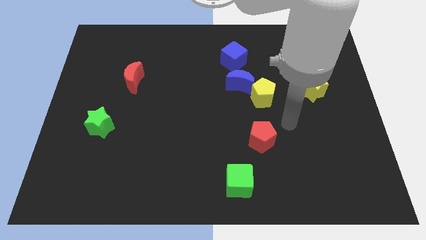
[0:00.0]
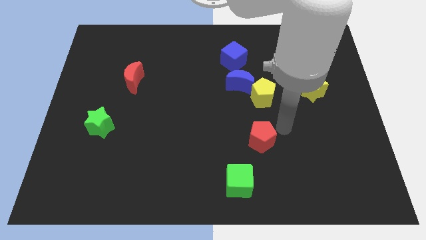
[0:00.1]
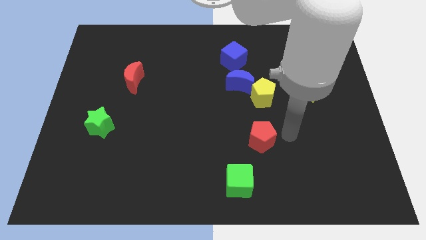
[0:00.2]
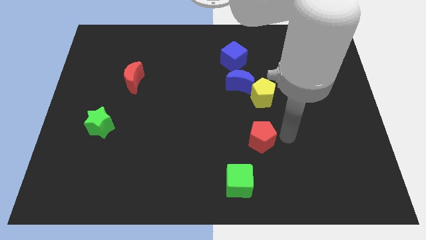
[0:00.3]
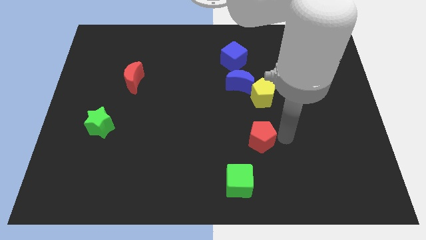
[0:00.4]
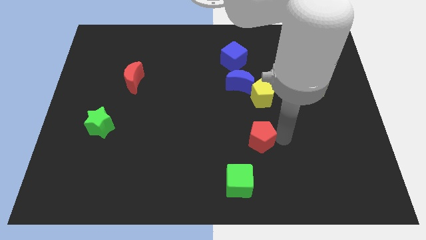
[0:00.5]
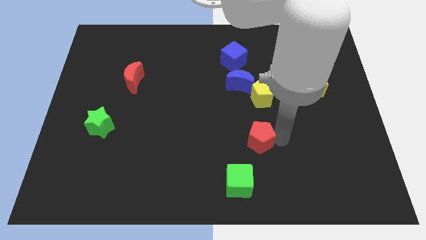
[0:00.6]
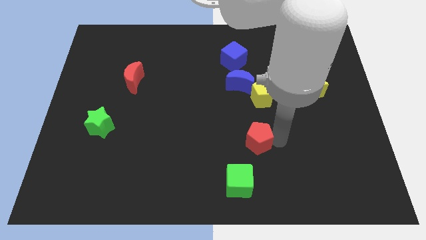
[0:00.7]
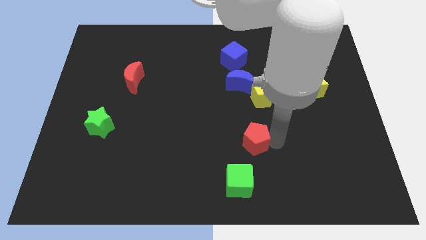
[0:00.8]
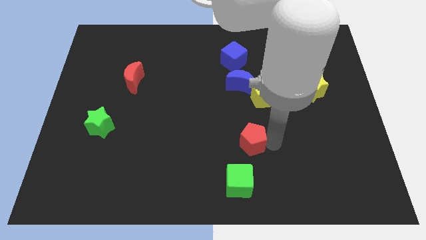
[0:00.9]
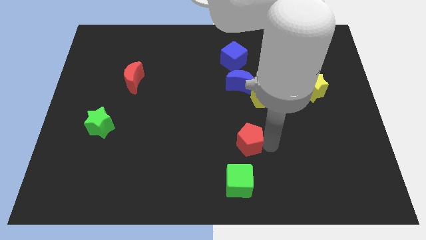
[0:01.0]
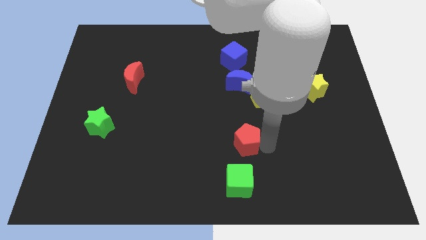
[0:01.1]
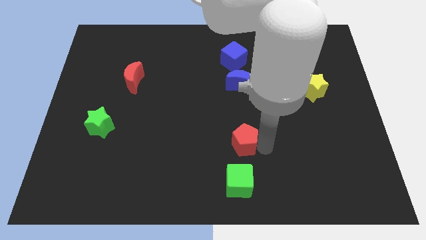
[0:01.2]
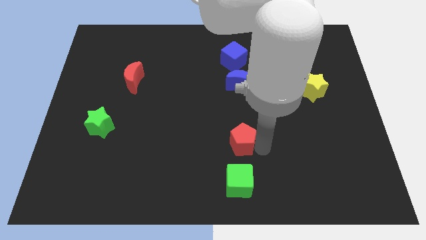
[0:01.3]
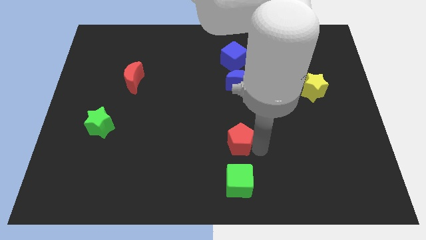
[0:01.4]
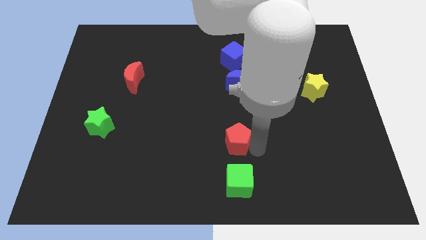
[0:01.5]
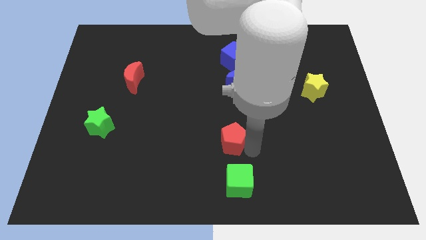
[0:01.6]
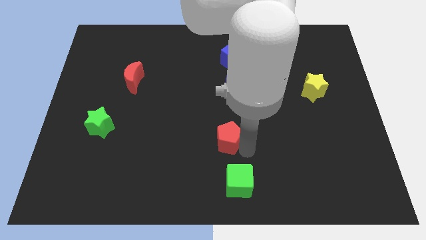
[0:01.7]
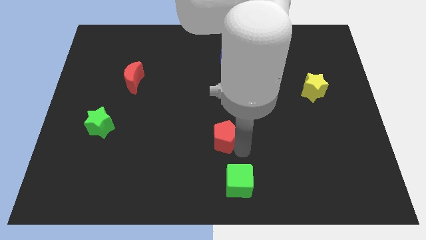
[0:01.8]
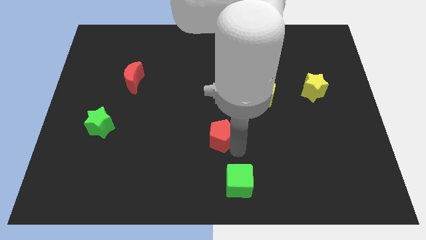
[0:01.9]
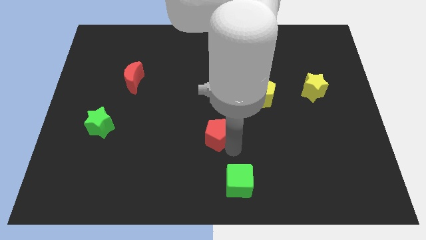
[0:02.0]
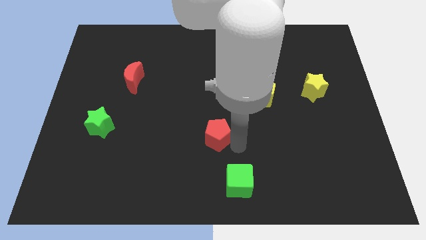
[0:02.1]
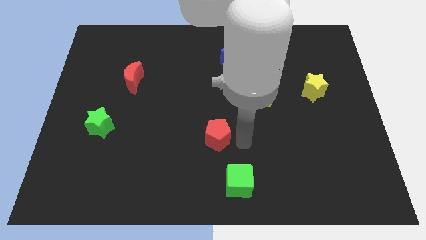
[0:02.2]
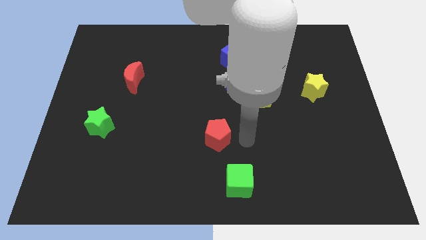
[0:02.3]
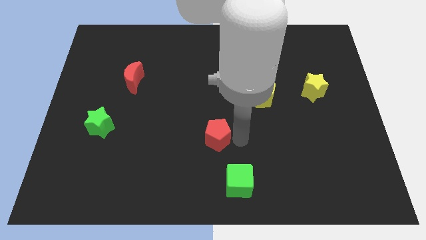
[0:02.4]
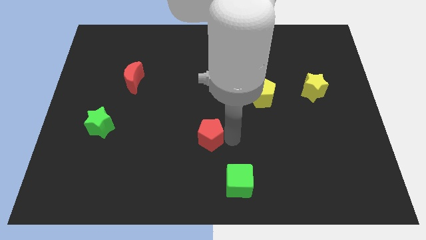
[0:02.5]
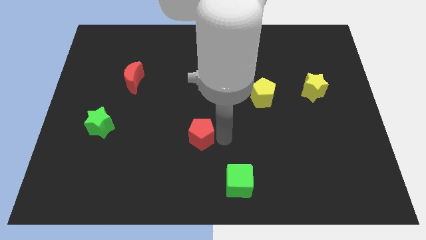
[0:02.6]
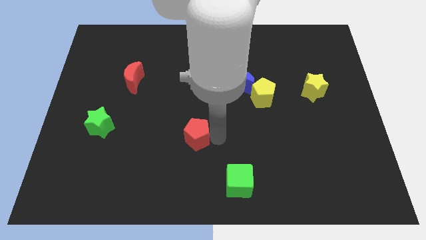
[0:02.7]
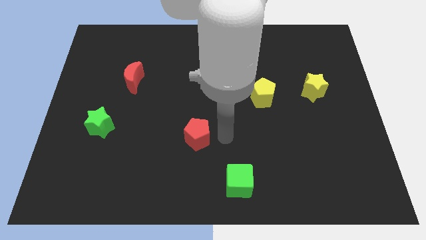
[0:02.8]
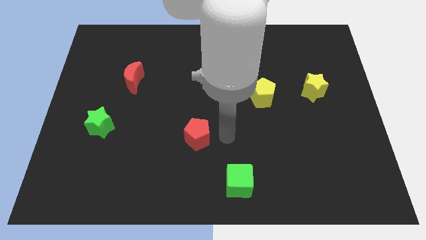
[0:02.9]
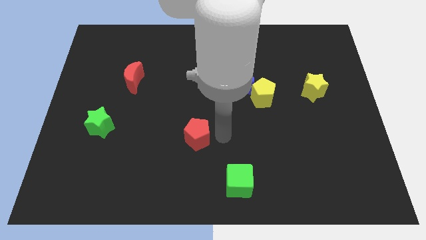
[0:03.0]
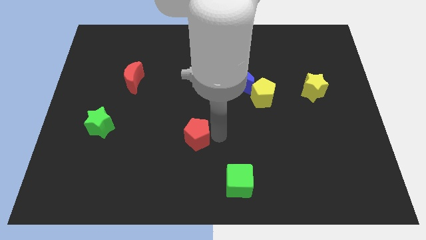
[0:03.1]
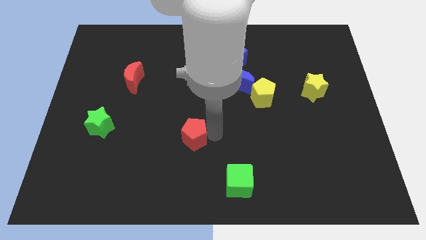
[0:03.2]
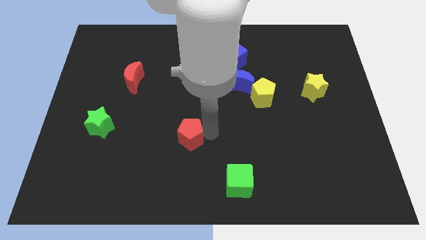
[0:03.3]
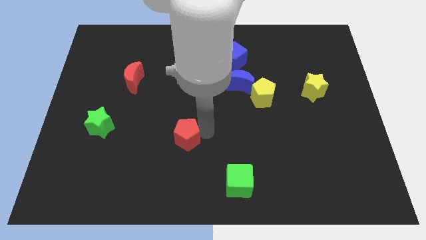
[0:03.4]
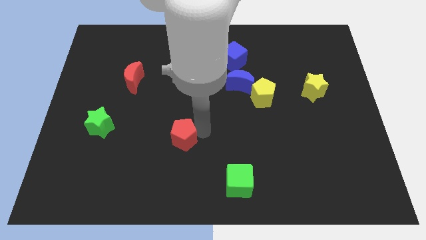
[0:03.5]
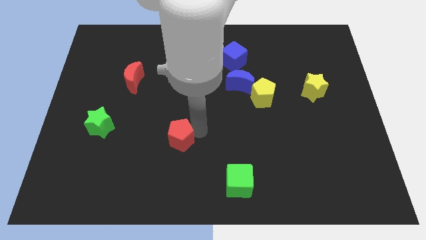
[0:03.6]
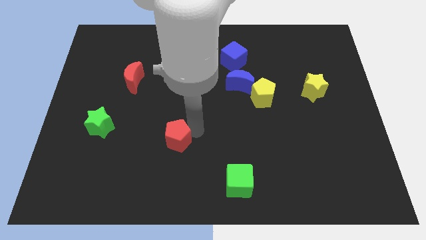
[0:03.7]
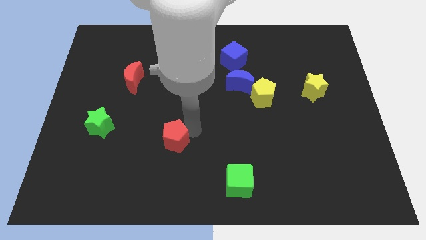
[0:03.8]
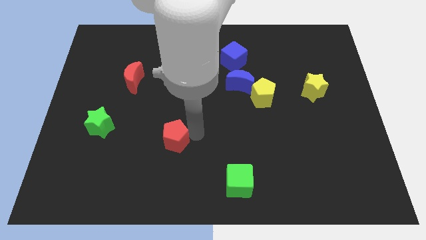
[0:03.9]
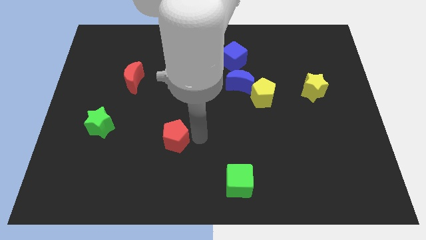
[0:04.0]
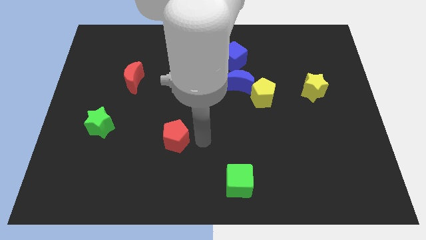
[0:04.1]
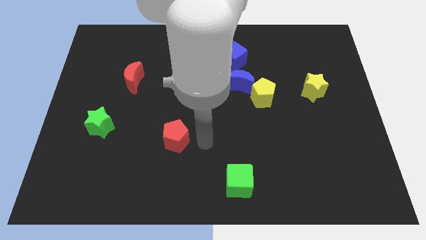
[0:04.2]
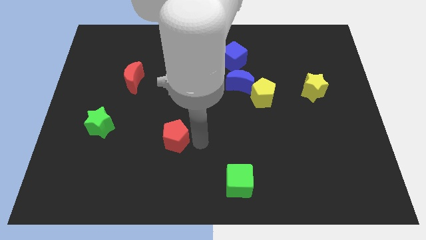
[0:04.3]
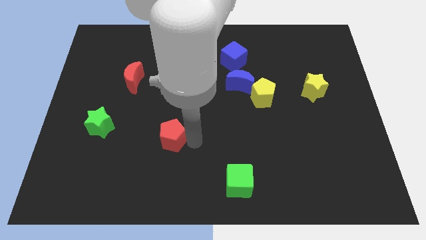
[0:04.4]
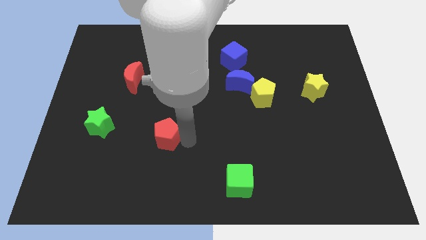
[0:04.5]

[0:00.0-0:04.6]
push the red pentagon left

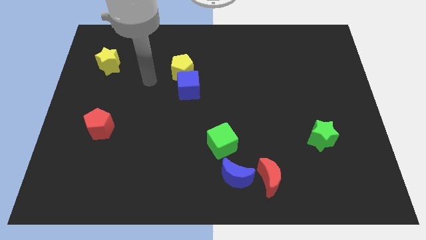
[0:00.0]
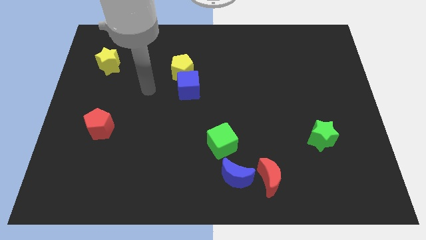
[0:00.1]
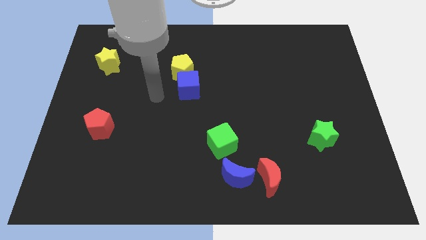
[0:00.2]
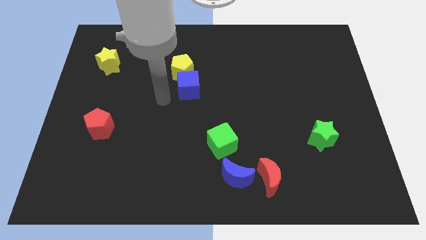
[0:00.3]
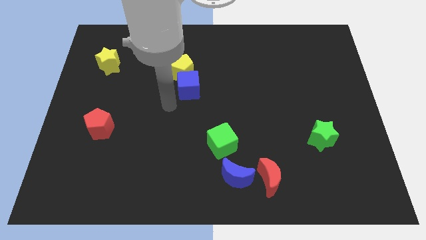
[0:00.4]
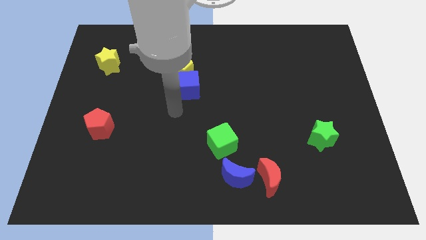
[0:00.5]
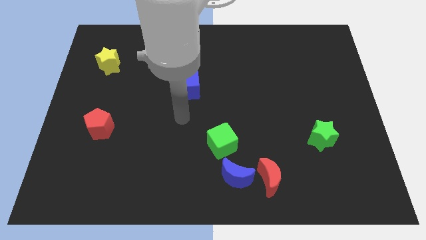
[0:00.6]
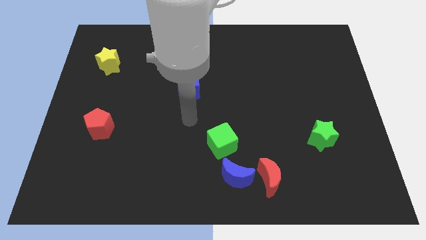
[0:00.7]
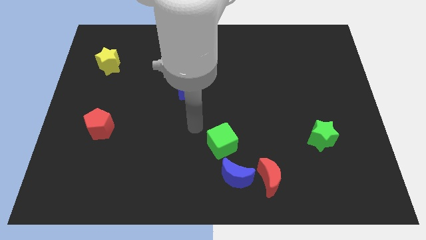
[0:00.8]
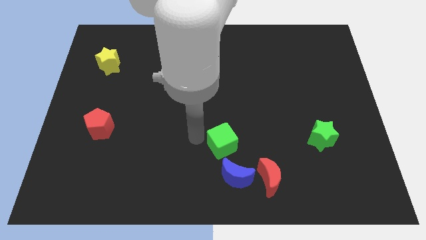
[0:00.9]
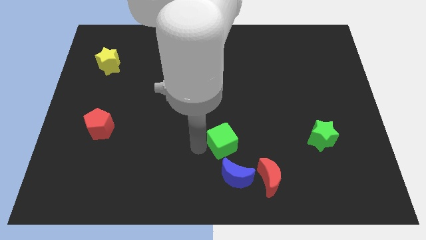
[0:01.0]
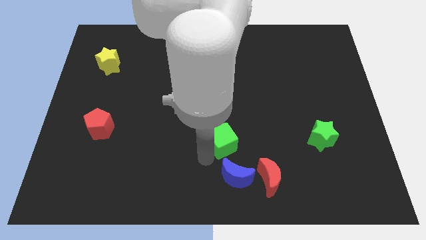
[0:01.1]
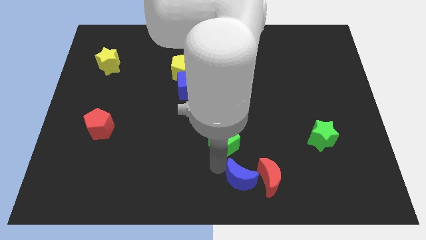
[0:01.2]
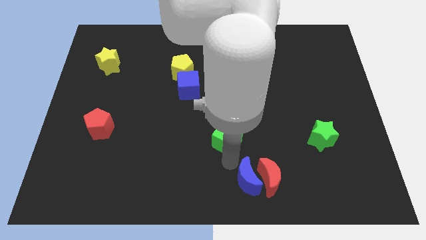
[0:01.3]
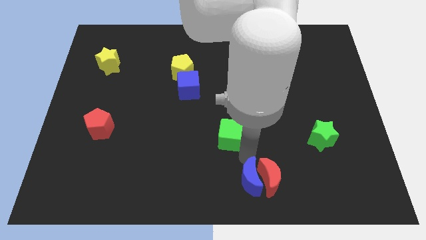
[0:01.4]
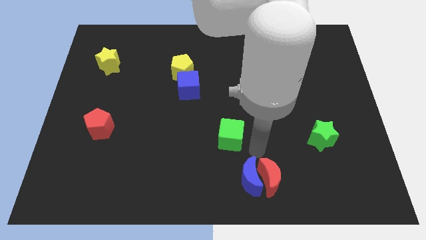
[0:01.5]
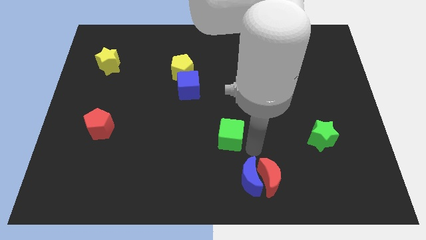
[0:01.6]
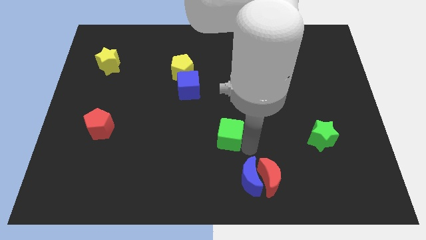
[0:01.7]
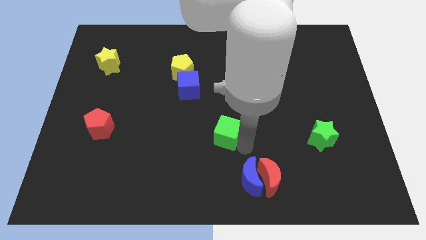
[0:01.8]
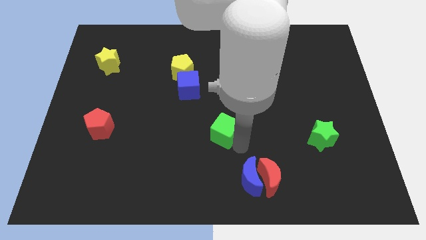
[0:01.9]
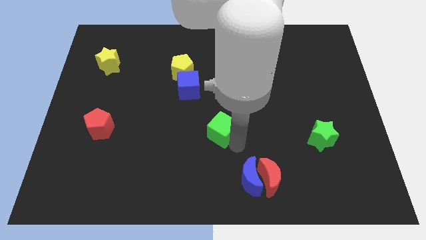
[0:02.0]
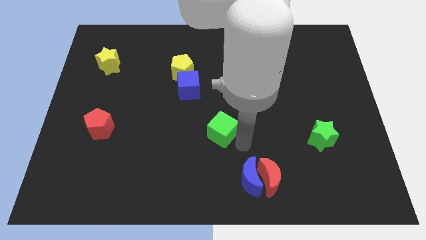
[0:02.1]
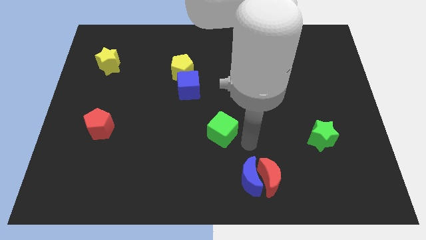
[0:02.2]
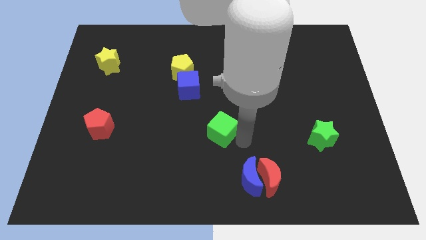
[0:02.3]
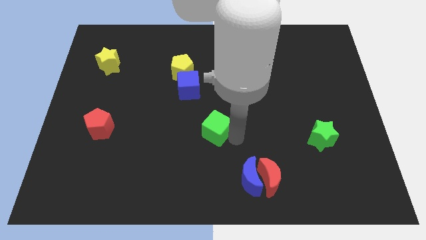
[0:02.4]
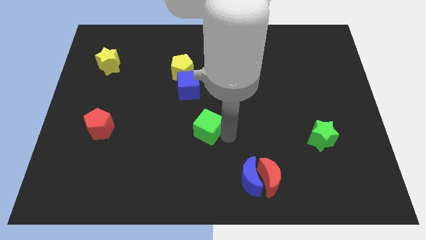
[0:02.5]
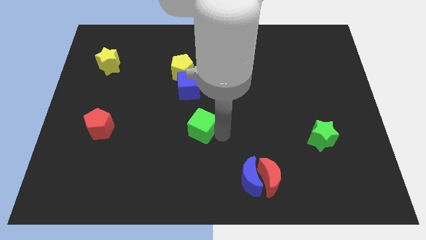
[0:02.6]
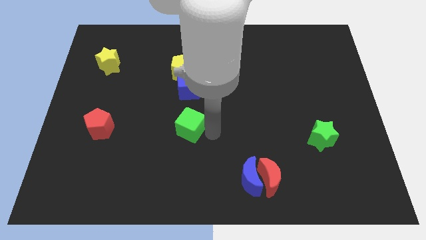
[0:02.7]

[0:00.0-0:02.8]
slide the green cube upwards and then to the left somewhat

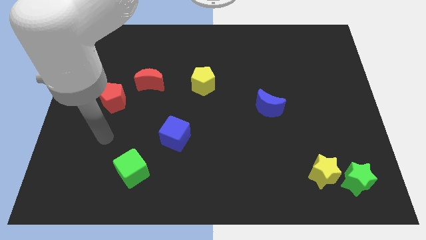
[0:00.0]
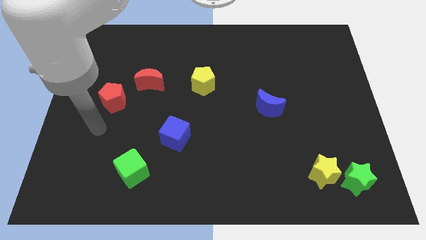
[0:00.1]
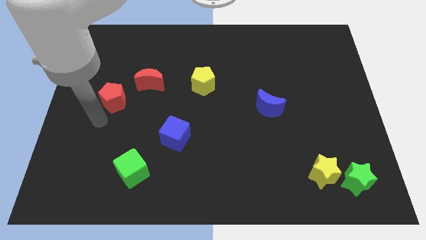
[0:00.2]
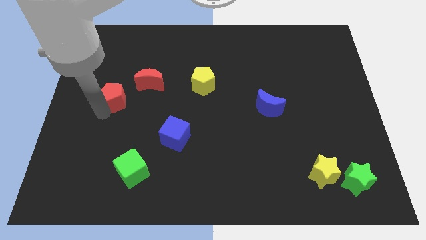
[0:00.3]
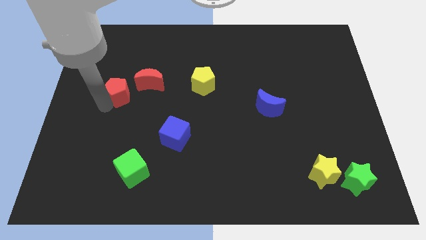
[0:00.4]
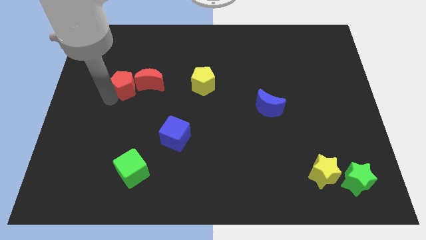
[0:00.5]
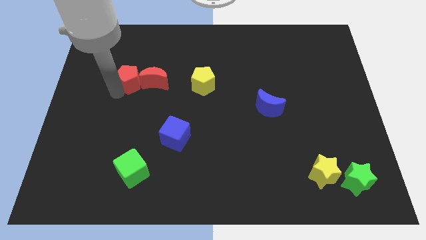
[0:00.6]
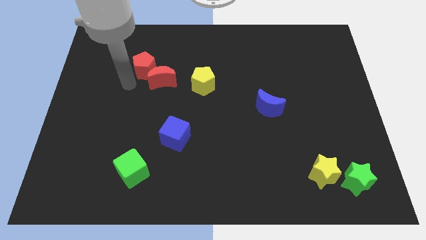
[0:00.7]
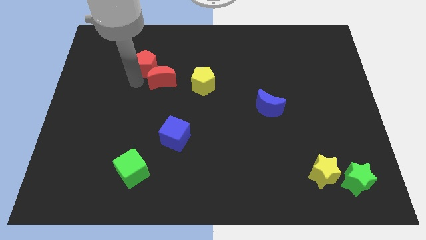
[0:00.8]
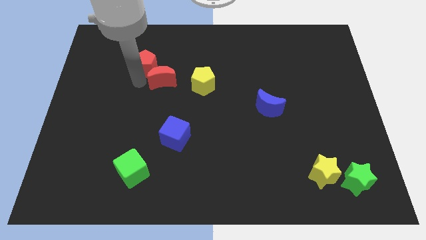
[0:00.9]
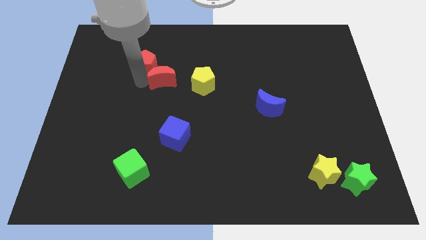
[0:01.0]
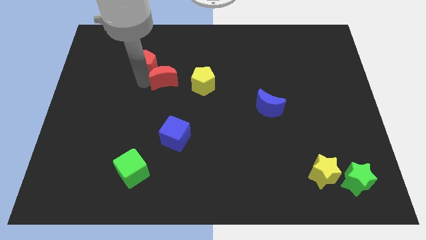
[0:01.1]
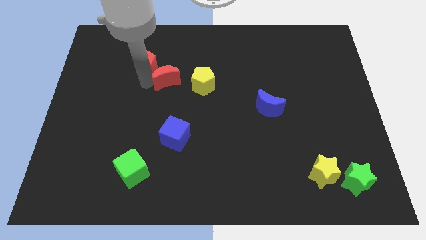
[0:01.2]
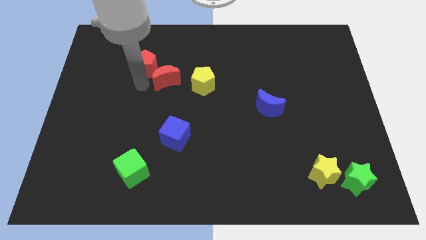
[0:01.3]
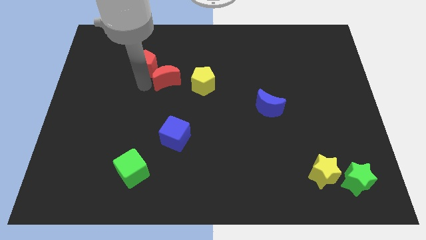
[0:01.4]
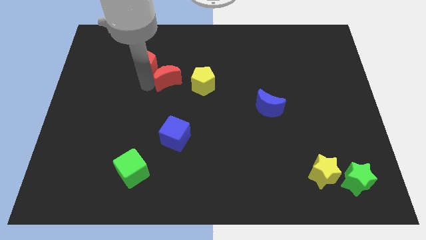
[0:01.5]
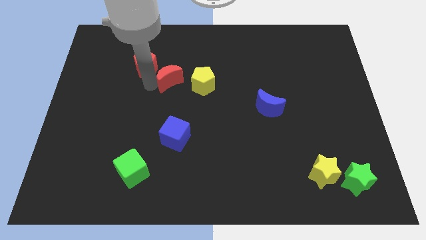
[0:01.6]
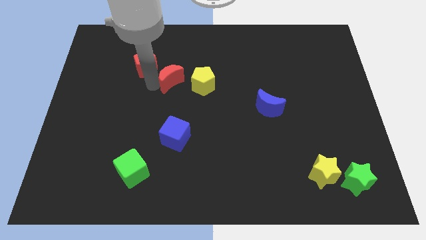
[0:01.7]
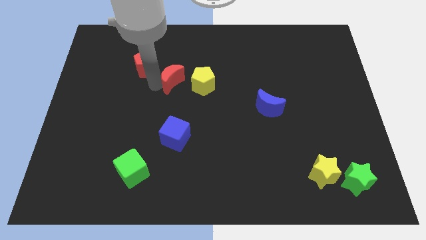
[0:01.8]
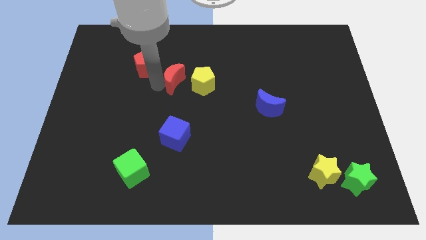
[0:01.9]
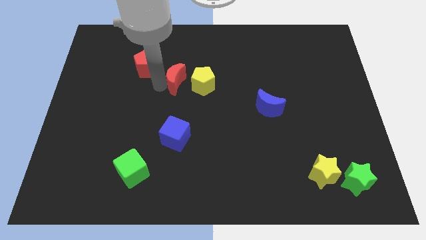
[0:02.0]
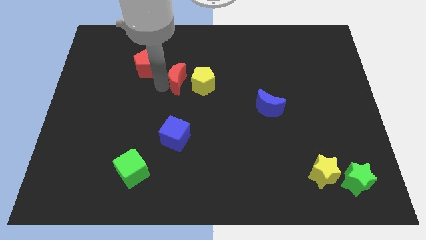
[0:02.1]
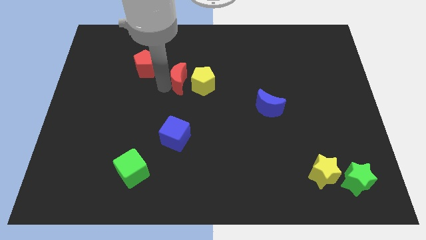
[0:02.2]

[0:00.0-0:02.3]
slightly slide the red moon right
